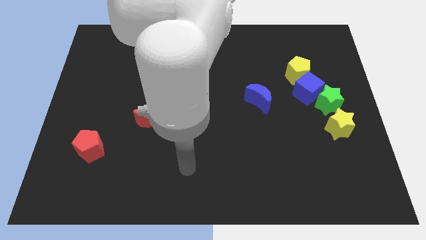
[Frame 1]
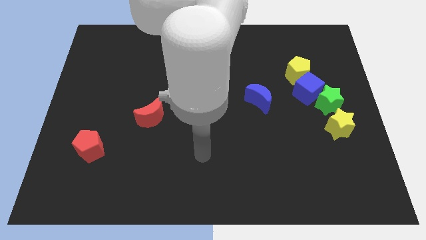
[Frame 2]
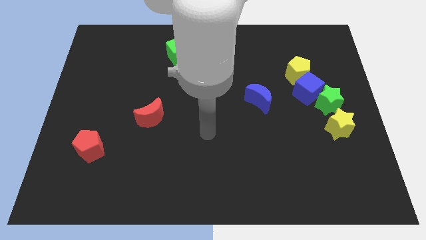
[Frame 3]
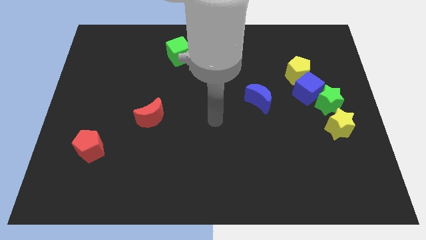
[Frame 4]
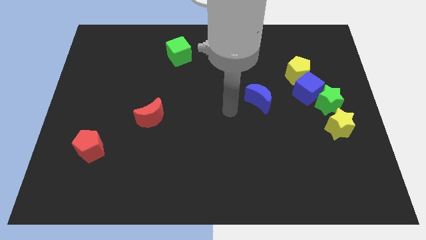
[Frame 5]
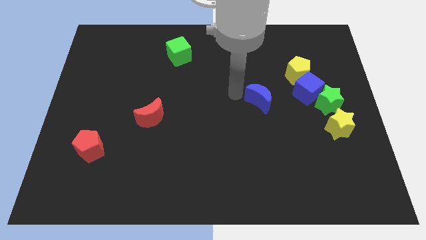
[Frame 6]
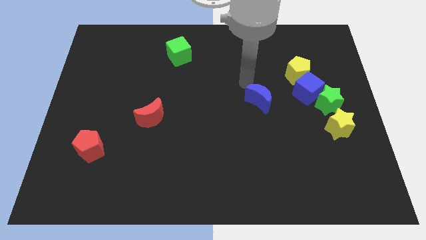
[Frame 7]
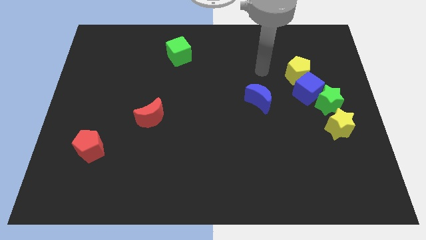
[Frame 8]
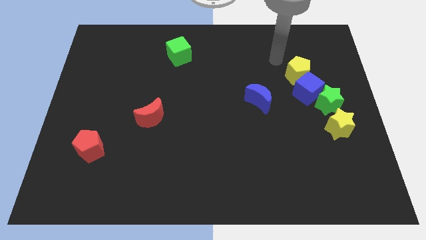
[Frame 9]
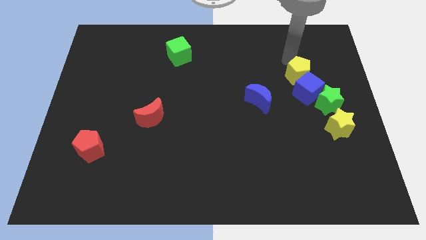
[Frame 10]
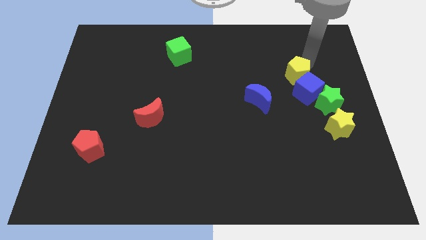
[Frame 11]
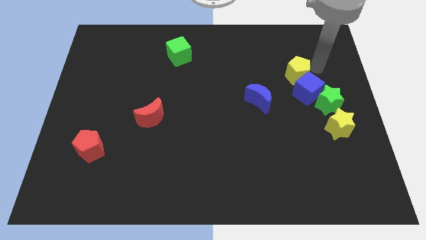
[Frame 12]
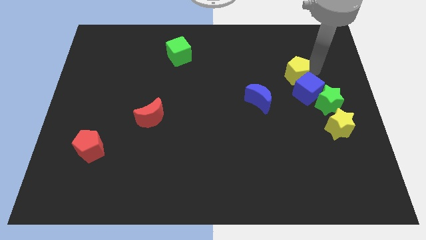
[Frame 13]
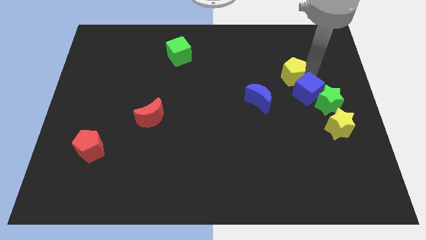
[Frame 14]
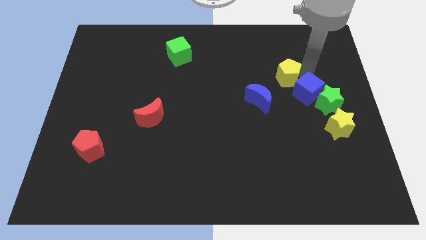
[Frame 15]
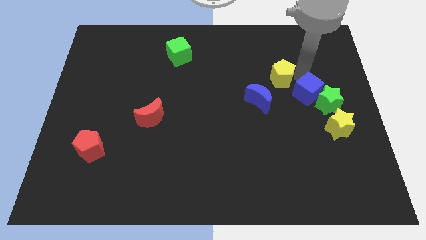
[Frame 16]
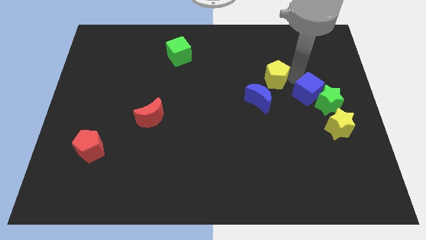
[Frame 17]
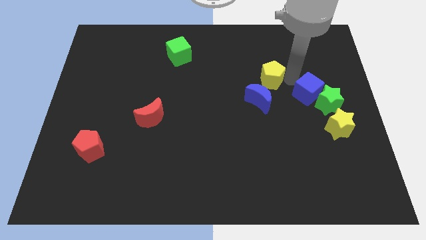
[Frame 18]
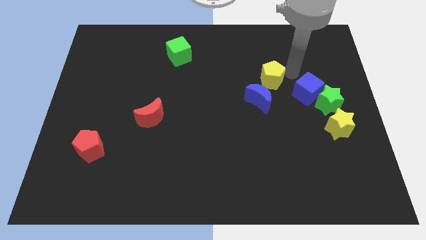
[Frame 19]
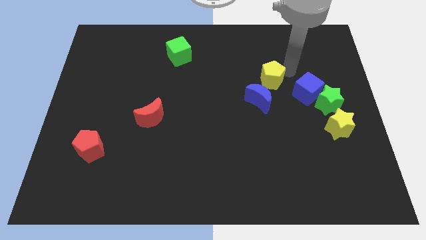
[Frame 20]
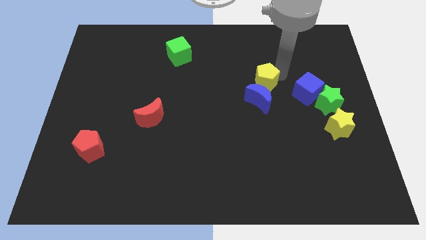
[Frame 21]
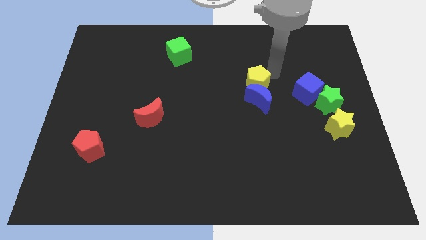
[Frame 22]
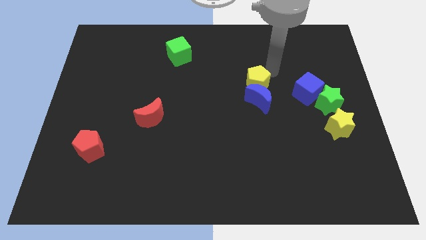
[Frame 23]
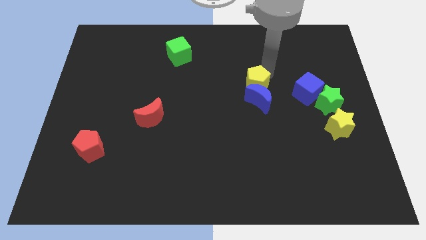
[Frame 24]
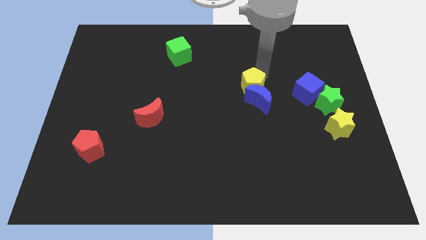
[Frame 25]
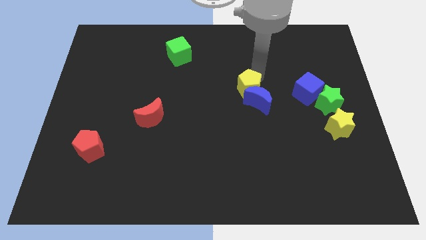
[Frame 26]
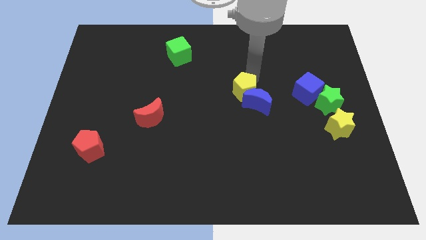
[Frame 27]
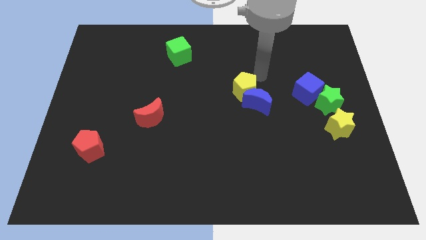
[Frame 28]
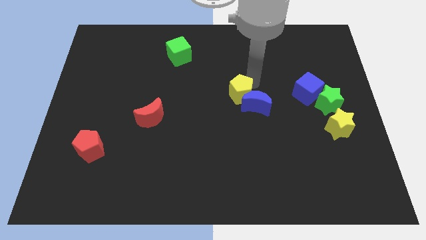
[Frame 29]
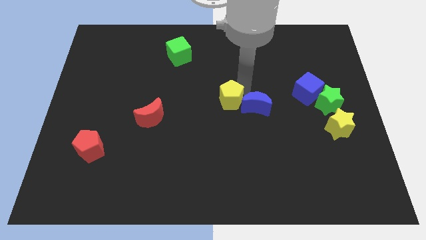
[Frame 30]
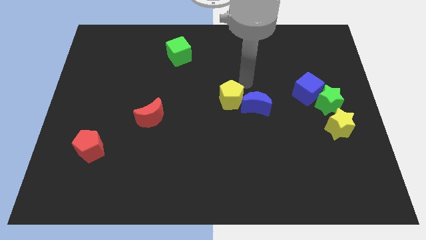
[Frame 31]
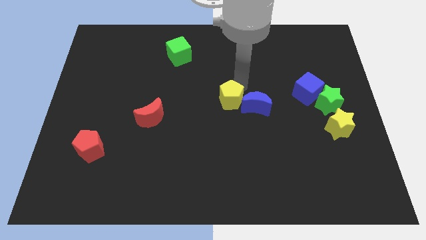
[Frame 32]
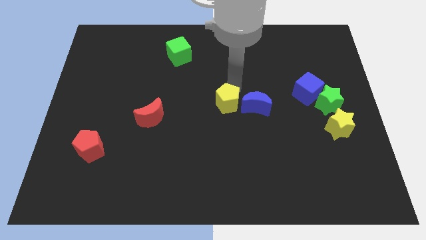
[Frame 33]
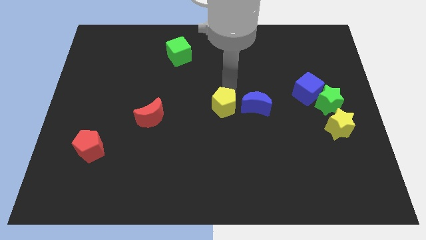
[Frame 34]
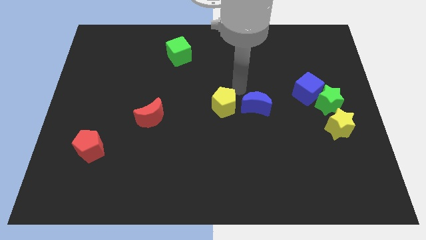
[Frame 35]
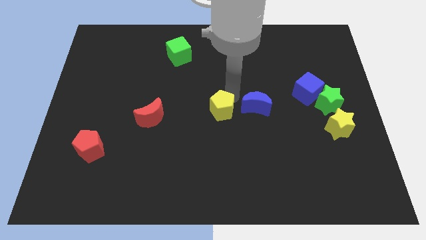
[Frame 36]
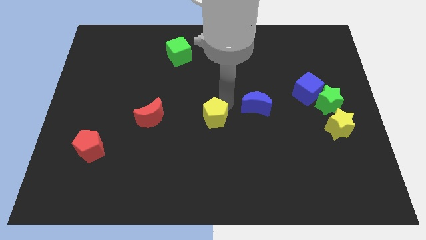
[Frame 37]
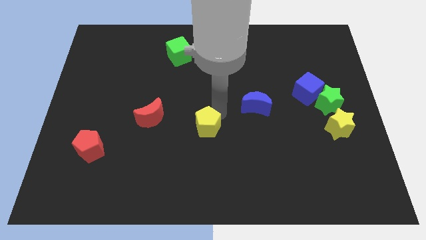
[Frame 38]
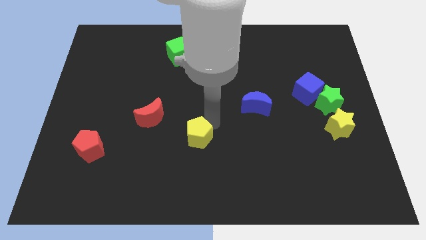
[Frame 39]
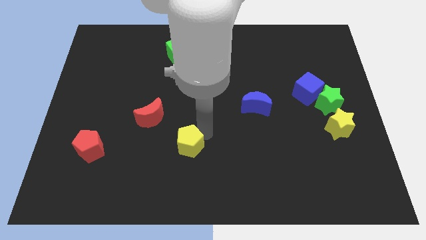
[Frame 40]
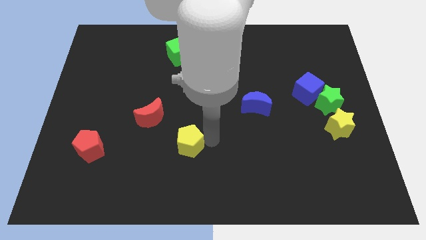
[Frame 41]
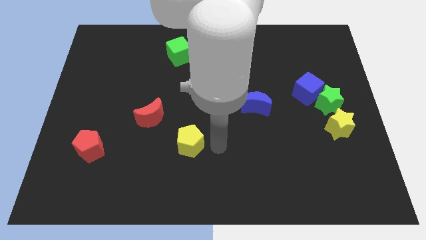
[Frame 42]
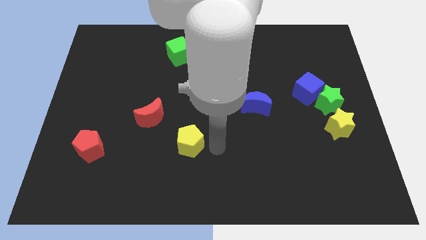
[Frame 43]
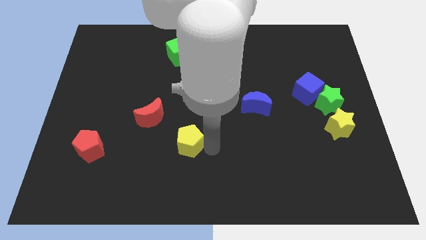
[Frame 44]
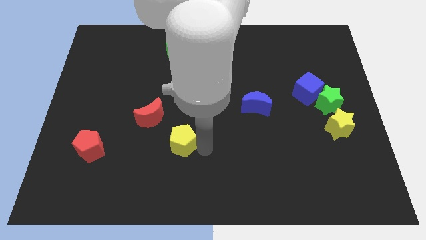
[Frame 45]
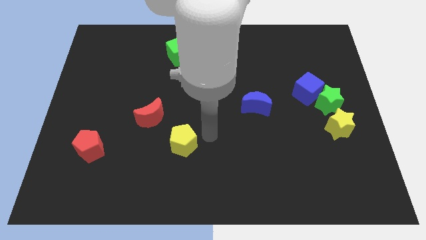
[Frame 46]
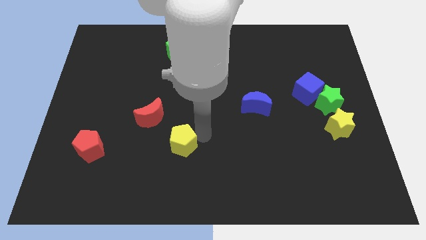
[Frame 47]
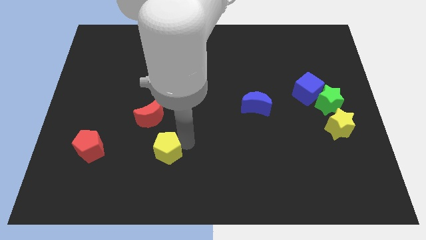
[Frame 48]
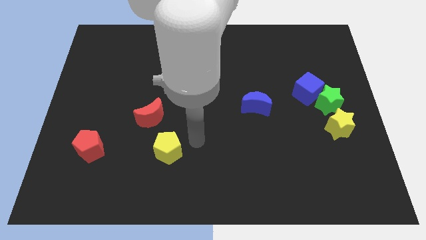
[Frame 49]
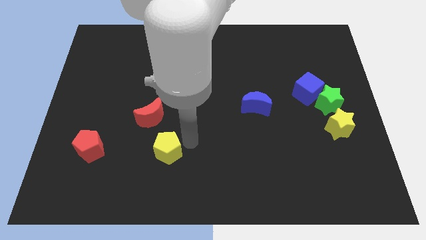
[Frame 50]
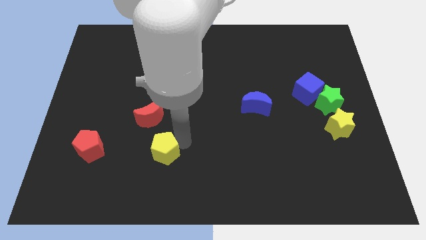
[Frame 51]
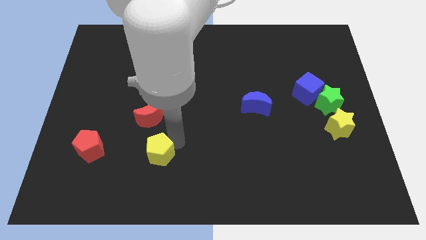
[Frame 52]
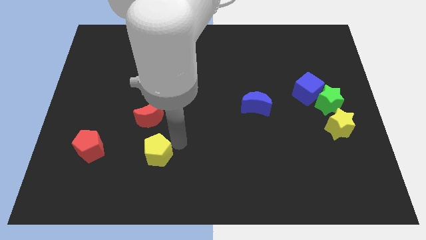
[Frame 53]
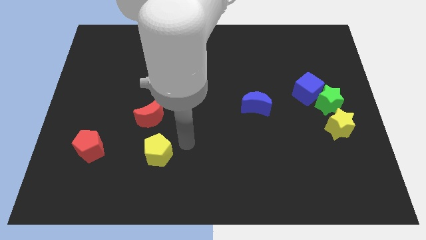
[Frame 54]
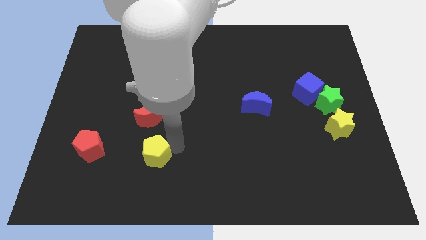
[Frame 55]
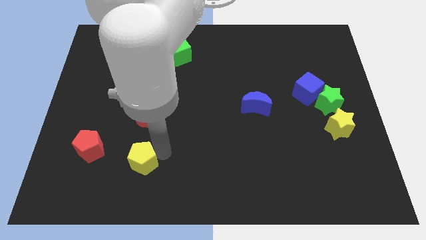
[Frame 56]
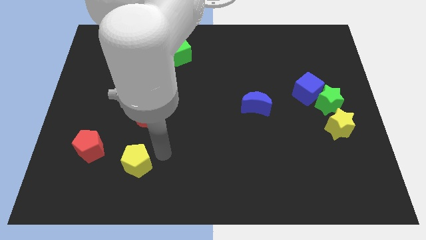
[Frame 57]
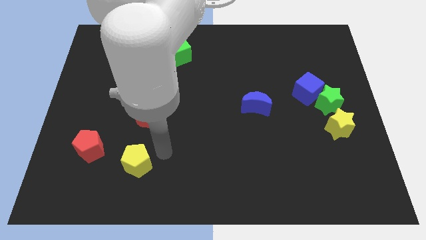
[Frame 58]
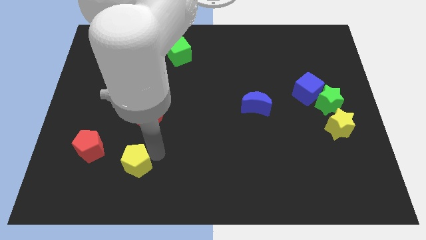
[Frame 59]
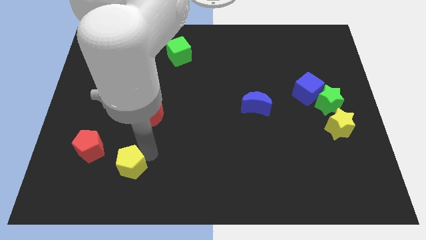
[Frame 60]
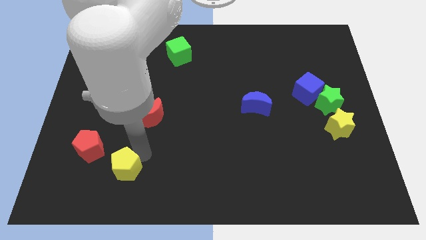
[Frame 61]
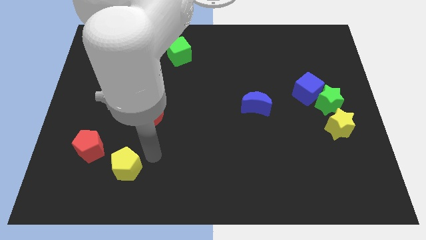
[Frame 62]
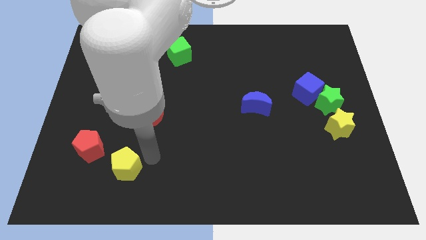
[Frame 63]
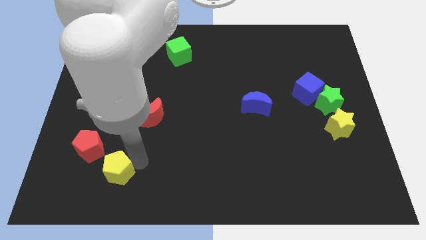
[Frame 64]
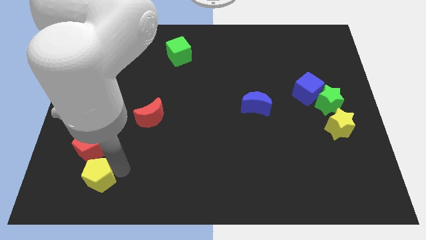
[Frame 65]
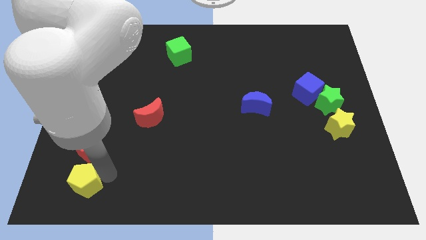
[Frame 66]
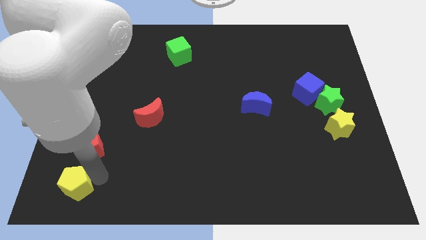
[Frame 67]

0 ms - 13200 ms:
slide the yellow pentagon to the bottom left
